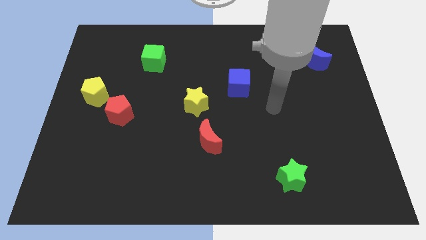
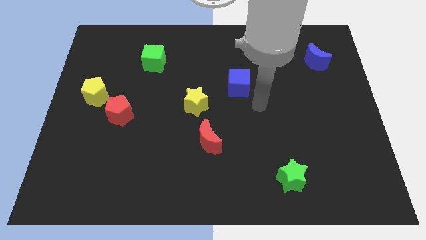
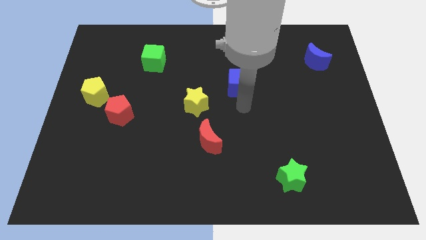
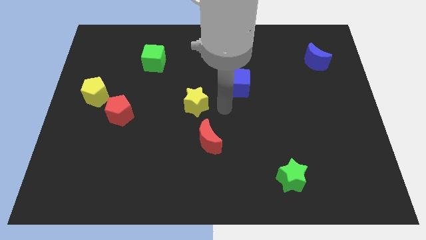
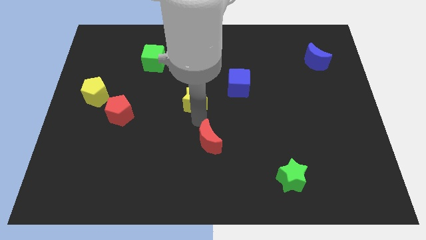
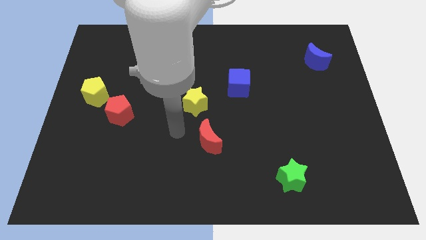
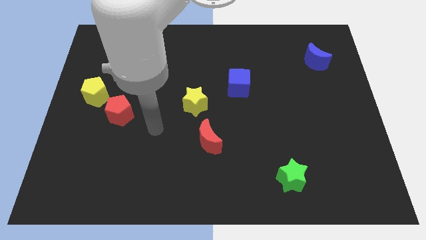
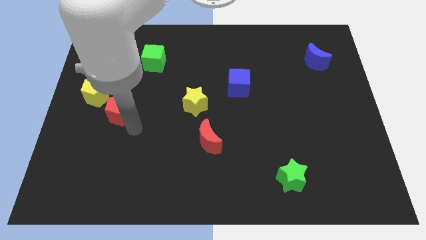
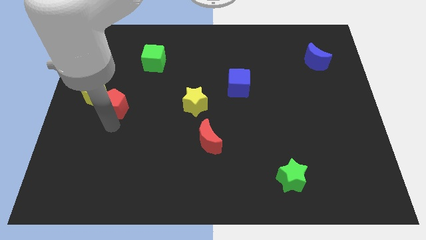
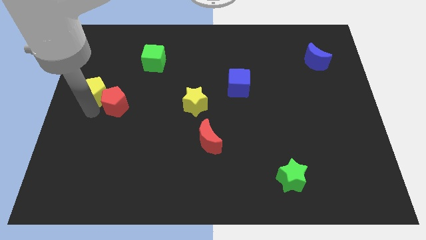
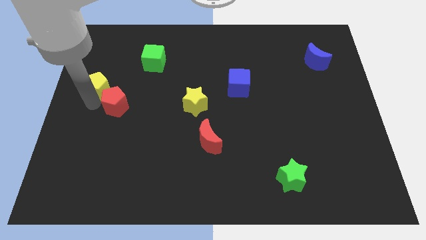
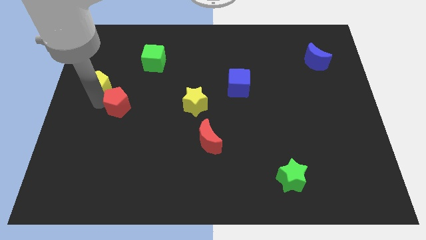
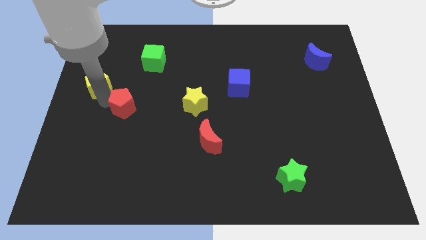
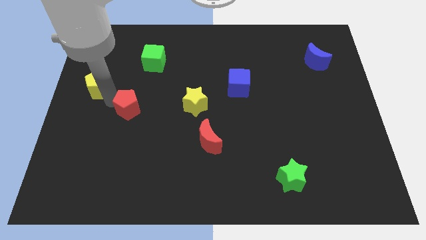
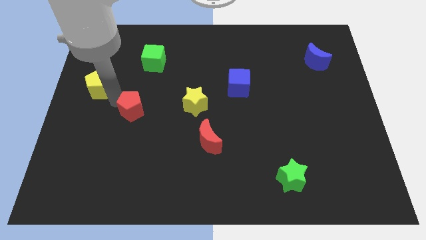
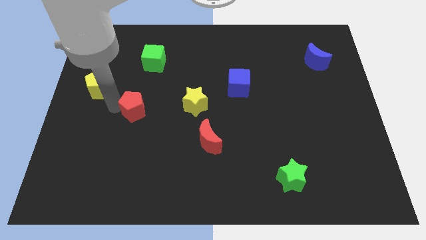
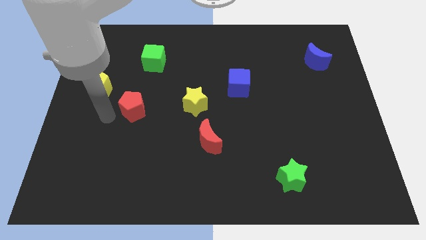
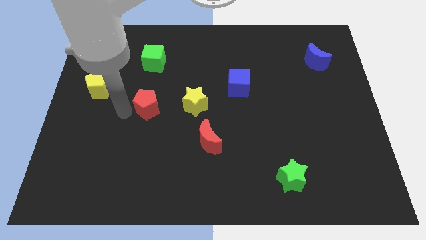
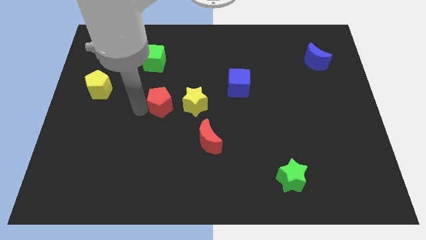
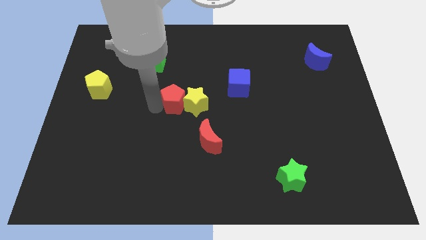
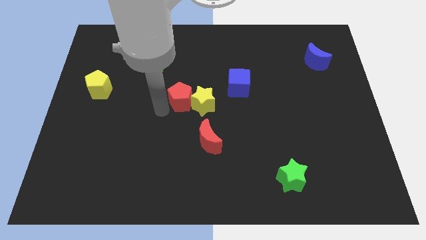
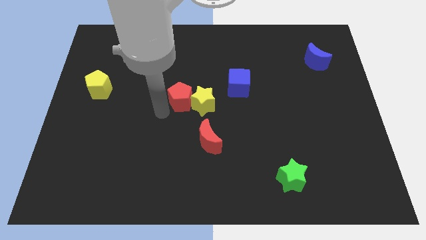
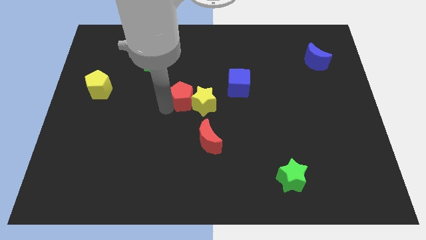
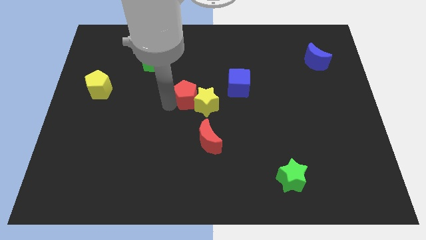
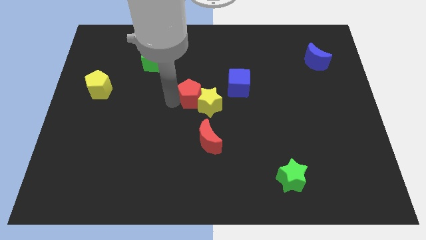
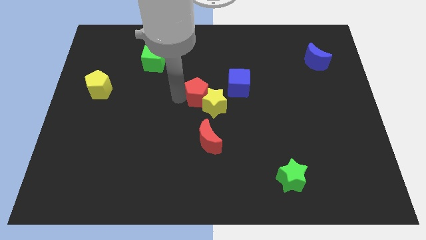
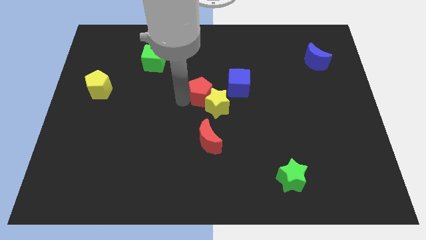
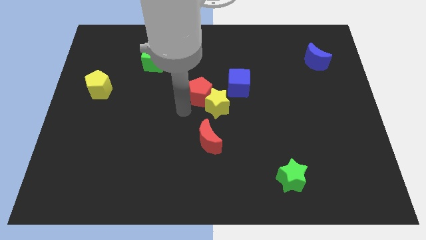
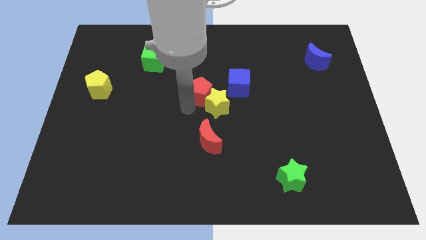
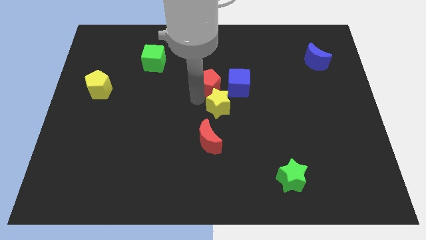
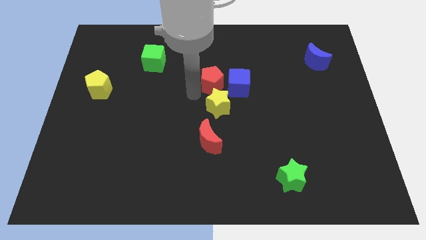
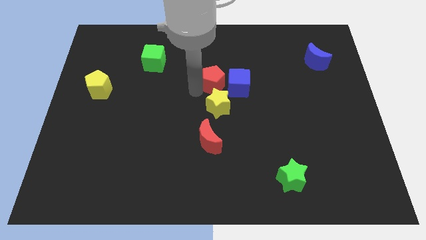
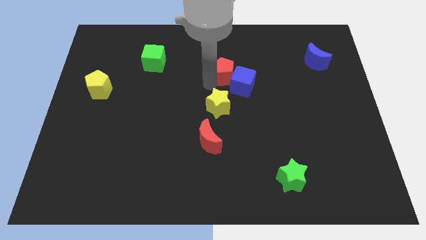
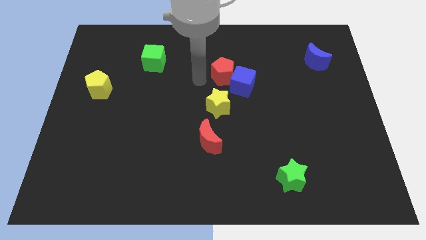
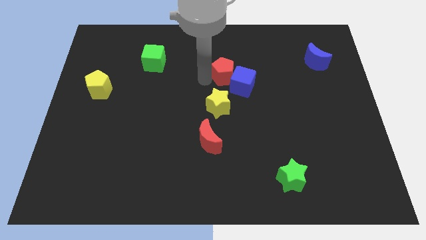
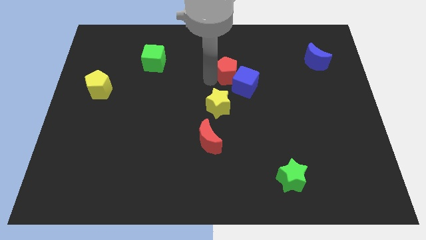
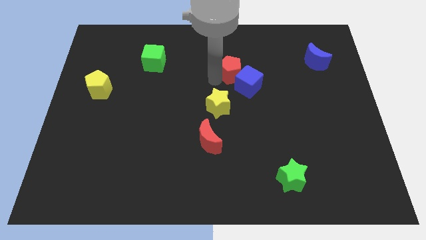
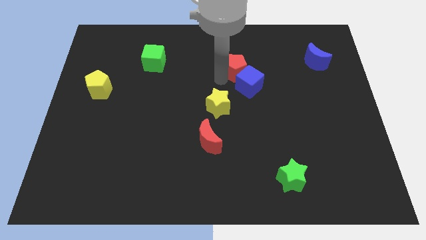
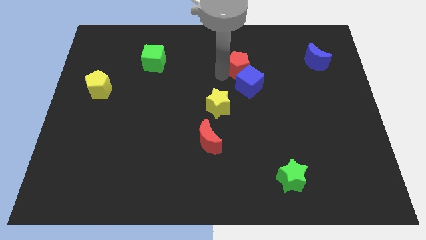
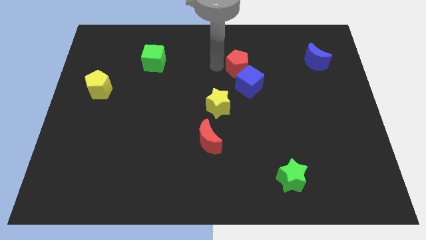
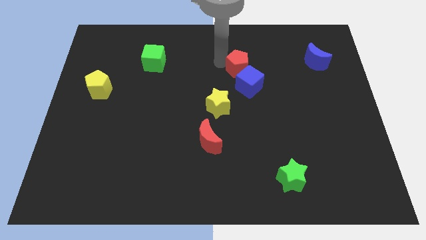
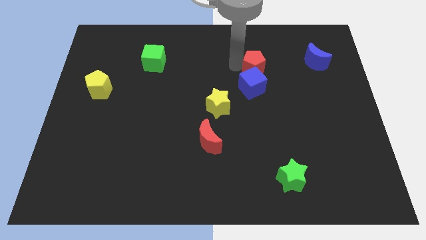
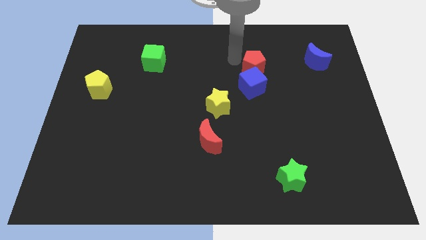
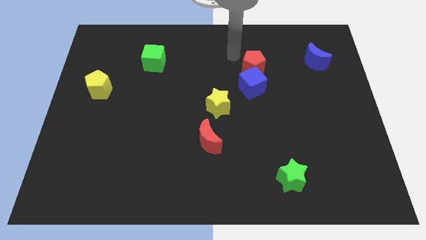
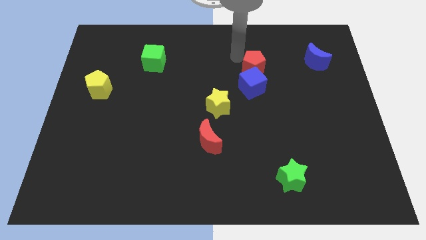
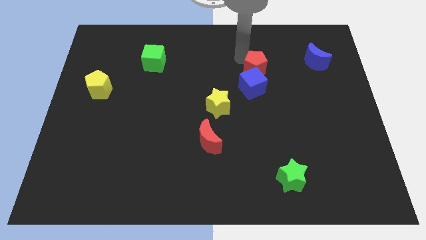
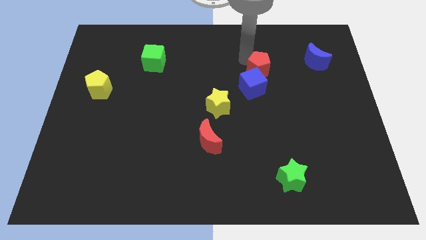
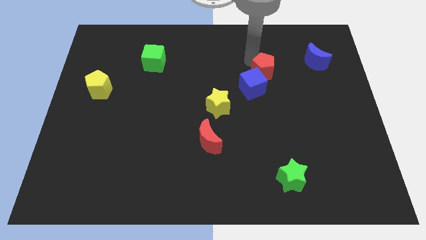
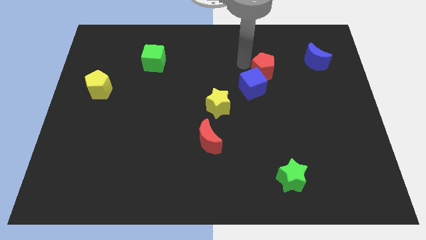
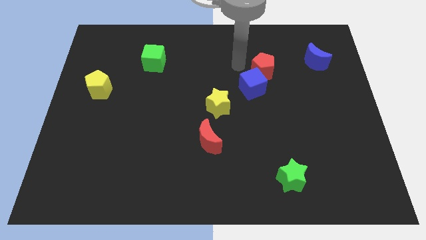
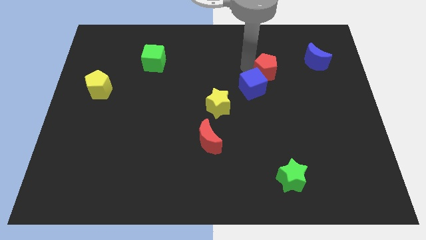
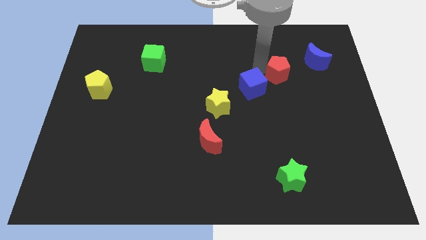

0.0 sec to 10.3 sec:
slide the red pentagon to the bottom left of the blue moon
